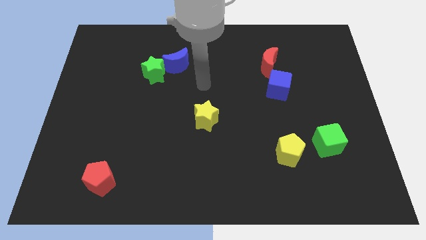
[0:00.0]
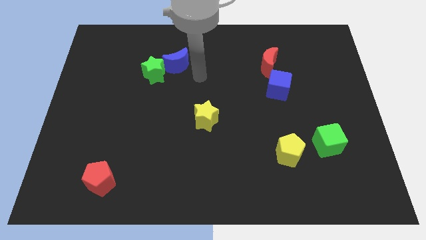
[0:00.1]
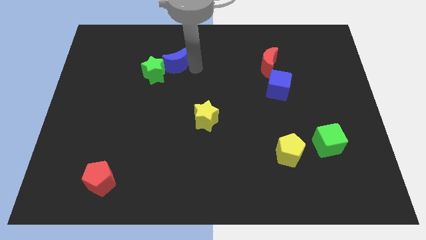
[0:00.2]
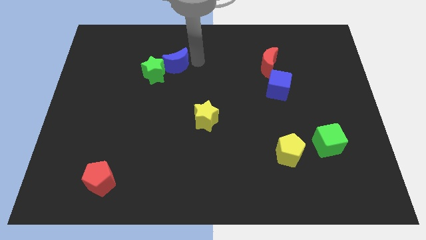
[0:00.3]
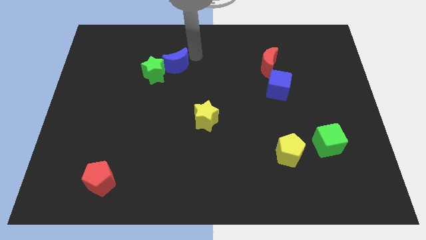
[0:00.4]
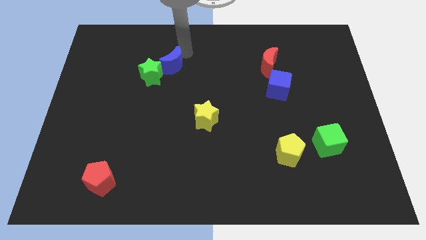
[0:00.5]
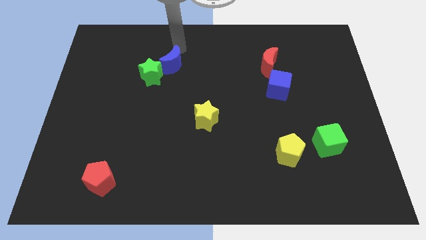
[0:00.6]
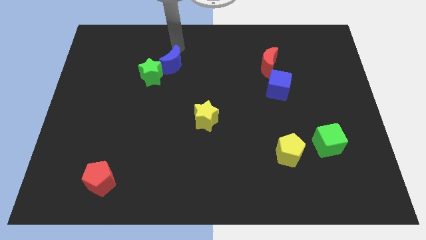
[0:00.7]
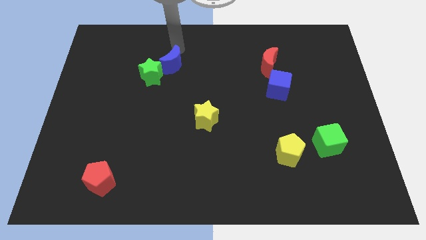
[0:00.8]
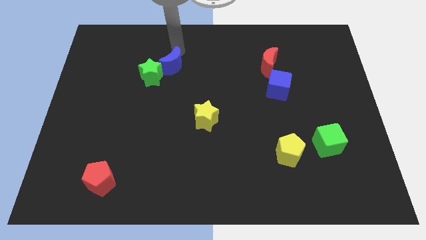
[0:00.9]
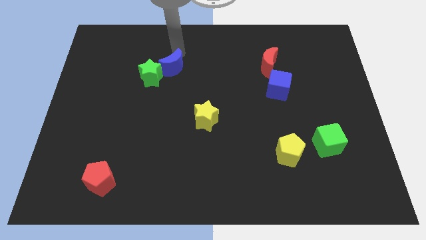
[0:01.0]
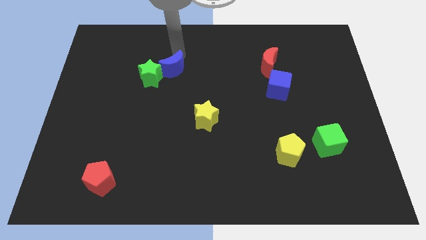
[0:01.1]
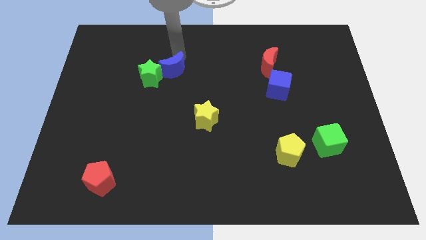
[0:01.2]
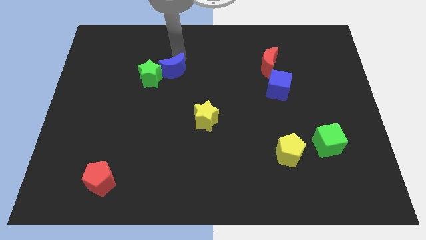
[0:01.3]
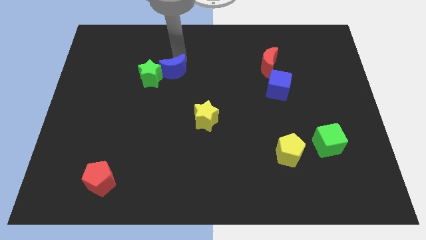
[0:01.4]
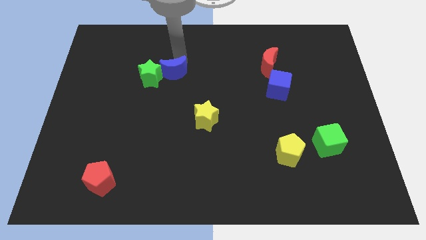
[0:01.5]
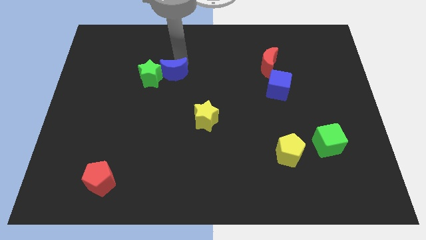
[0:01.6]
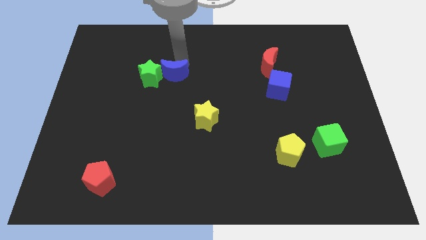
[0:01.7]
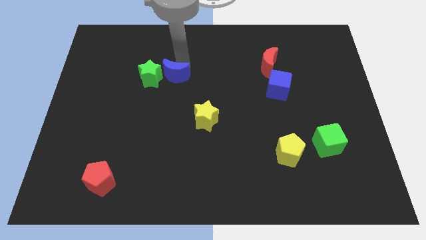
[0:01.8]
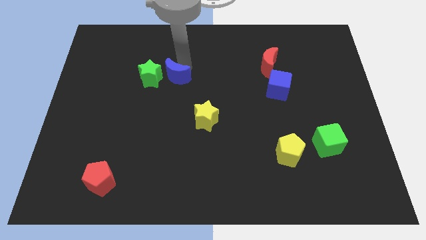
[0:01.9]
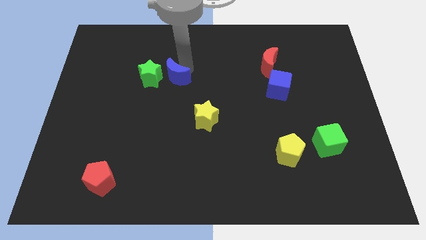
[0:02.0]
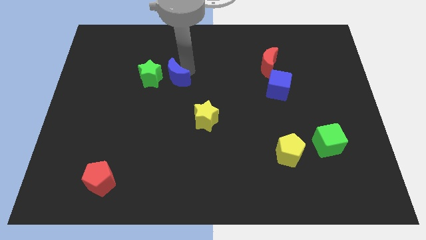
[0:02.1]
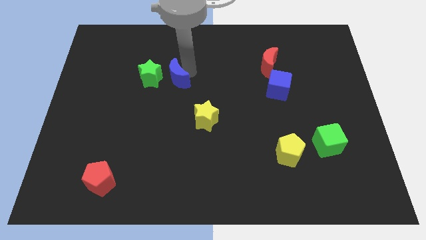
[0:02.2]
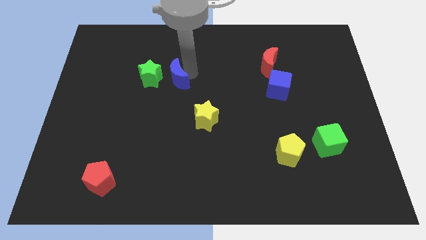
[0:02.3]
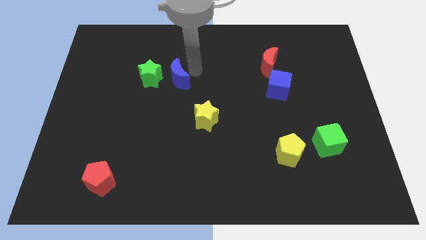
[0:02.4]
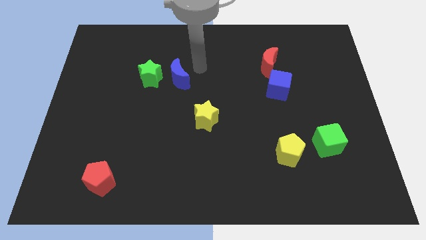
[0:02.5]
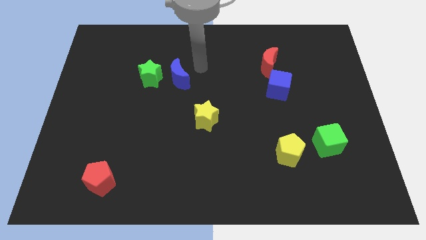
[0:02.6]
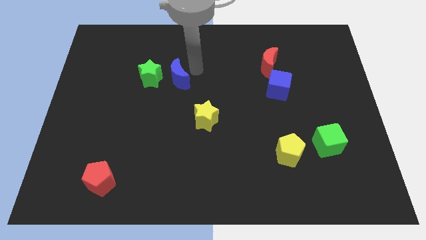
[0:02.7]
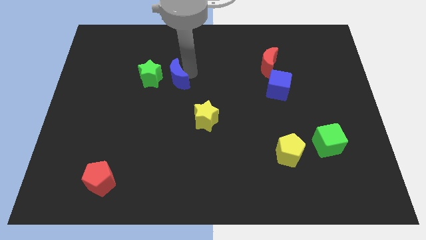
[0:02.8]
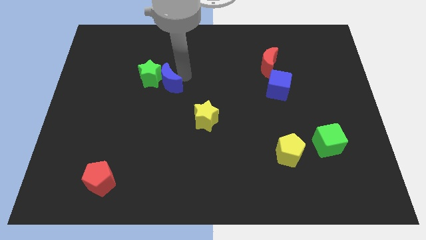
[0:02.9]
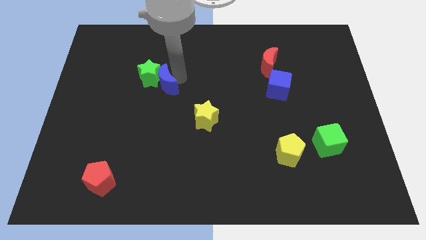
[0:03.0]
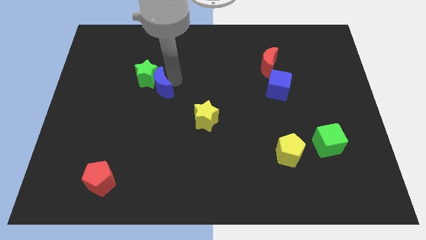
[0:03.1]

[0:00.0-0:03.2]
move the blue moon diagonally downwards and to the left slightly

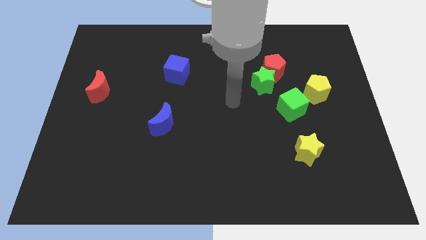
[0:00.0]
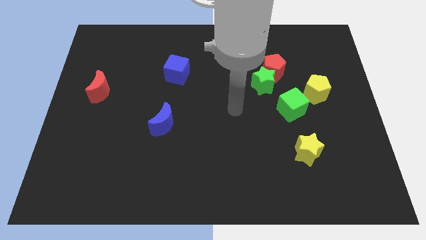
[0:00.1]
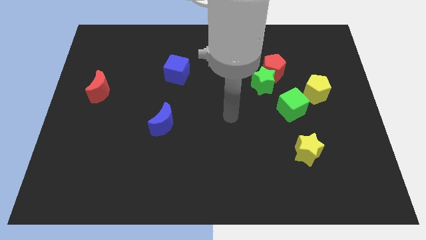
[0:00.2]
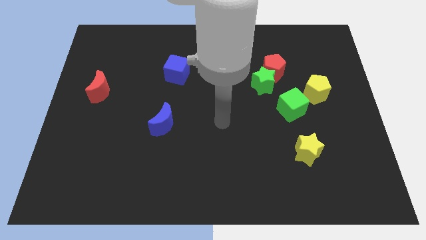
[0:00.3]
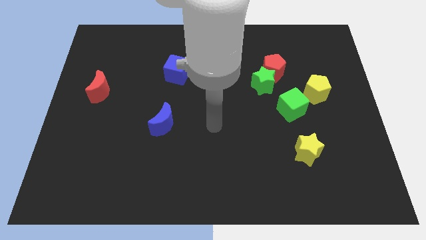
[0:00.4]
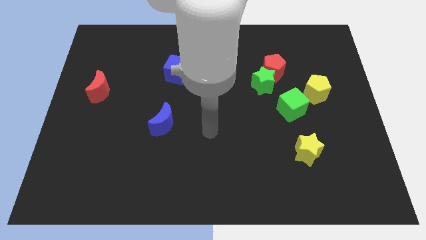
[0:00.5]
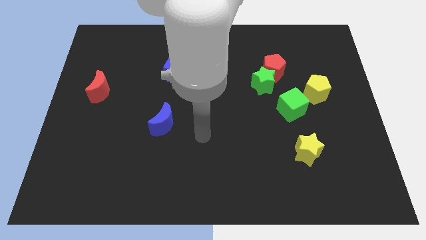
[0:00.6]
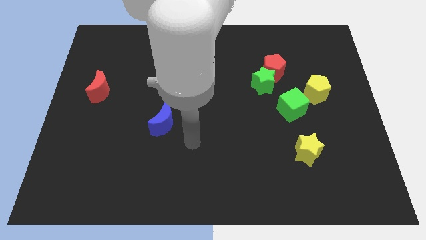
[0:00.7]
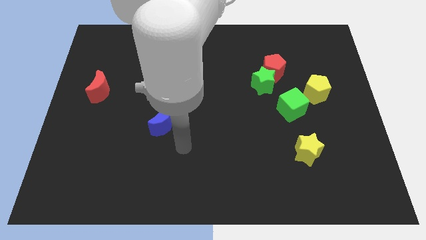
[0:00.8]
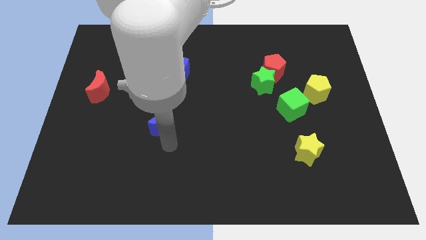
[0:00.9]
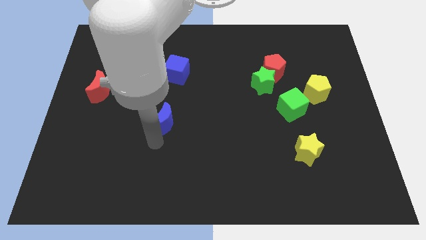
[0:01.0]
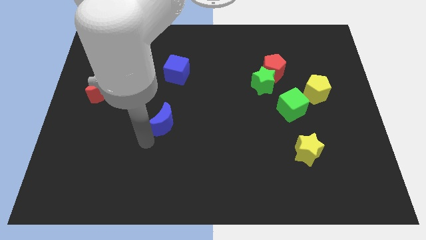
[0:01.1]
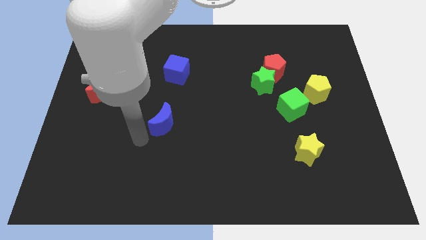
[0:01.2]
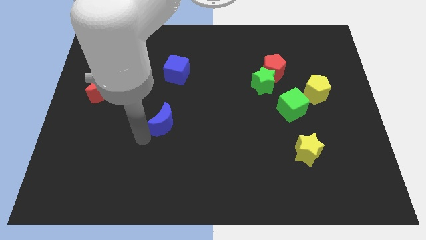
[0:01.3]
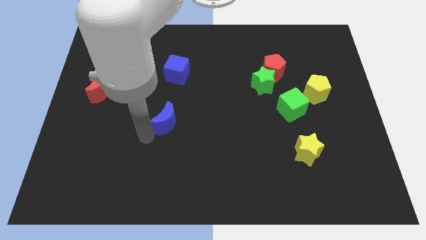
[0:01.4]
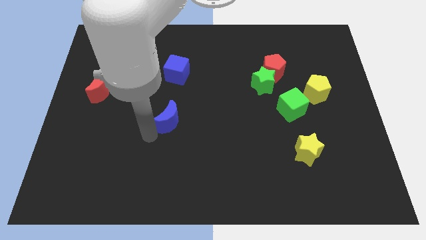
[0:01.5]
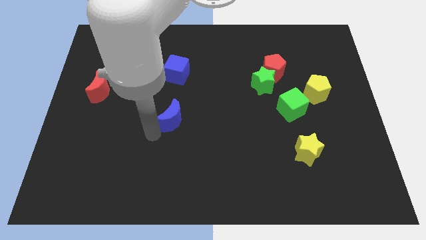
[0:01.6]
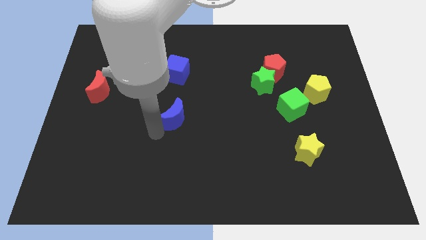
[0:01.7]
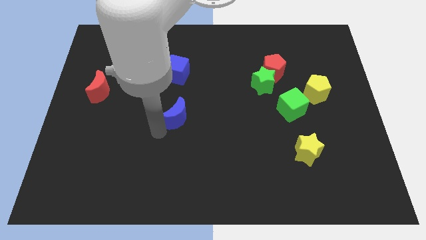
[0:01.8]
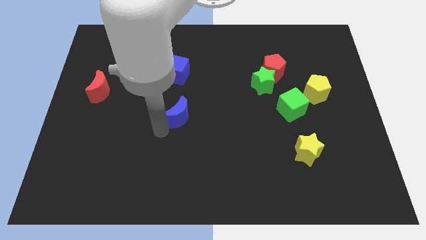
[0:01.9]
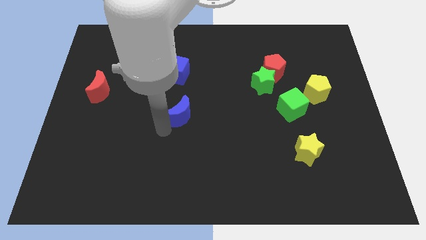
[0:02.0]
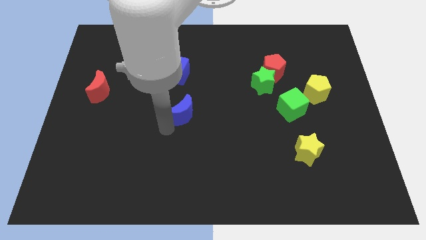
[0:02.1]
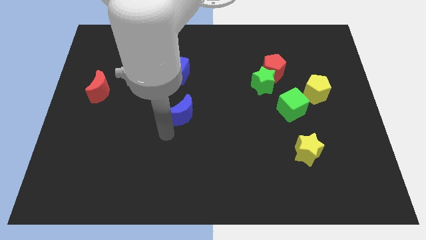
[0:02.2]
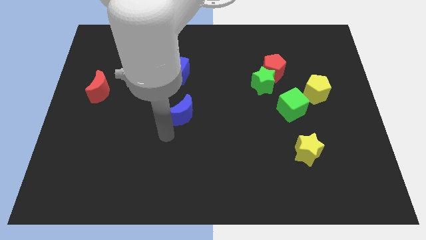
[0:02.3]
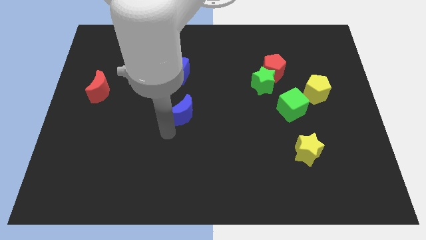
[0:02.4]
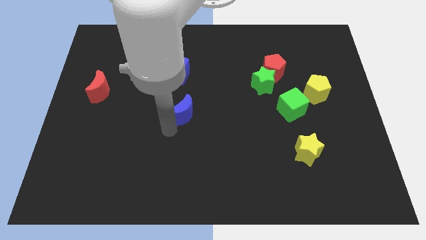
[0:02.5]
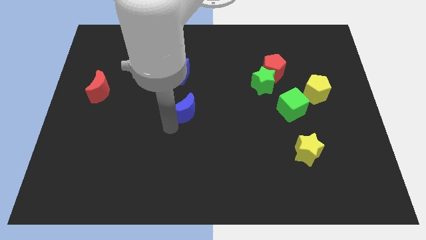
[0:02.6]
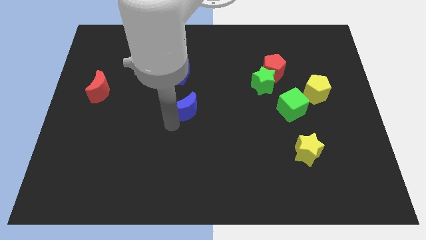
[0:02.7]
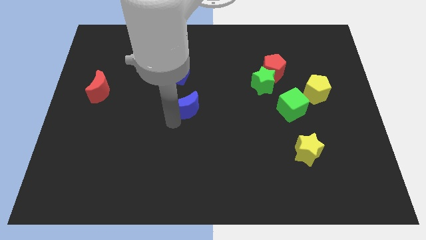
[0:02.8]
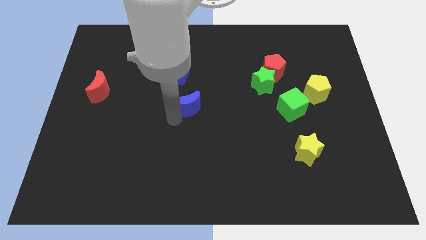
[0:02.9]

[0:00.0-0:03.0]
slide the blue moon slightly diagonally upwards and right

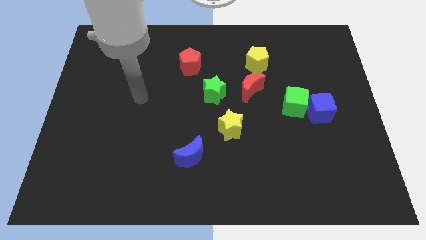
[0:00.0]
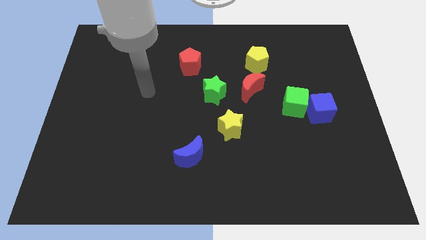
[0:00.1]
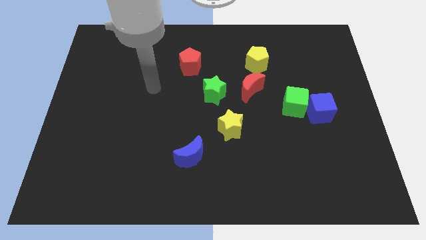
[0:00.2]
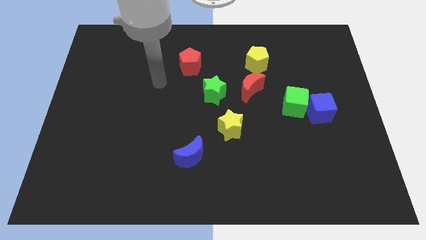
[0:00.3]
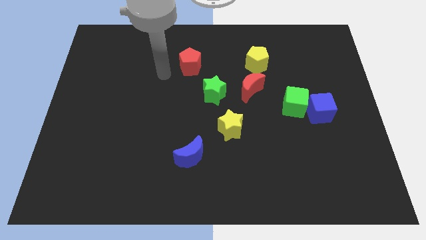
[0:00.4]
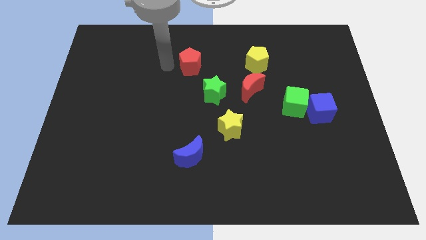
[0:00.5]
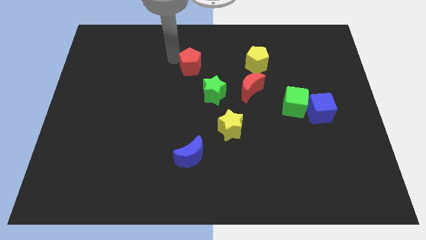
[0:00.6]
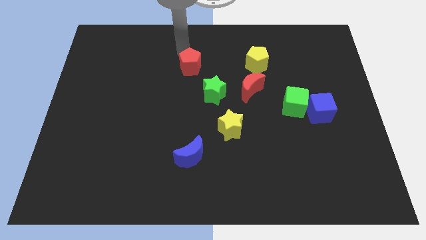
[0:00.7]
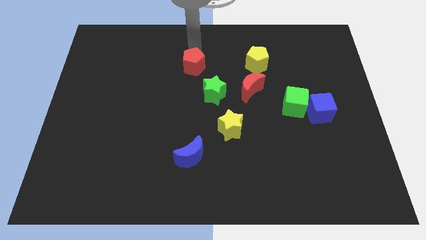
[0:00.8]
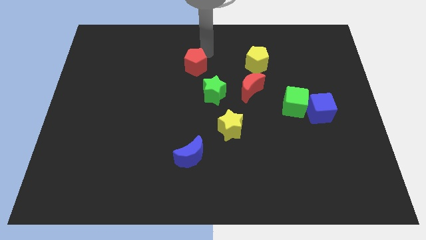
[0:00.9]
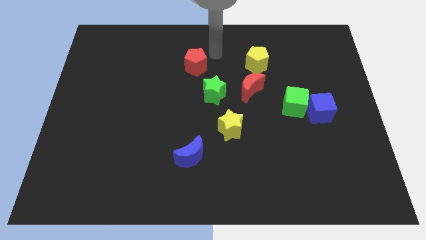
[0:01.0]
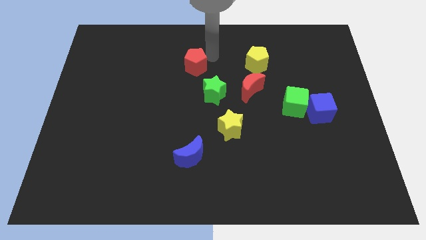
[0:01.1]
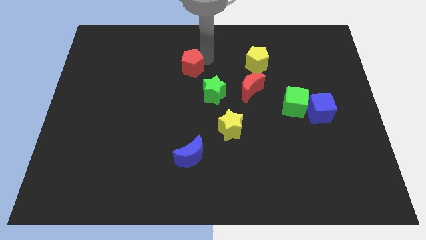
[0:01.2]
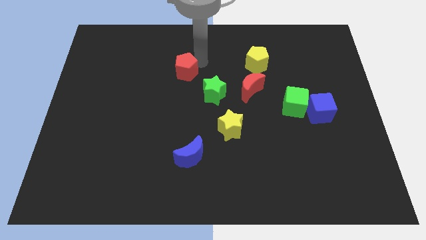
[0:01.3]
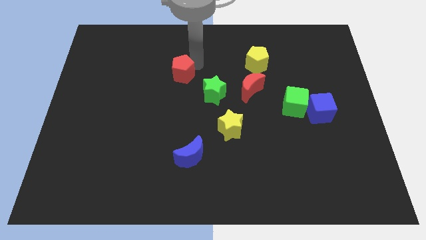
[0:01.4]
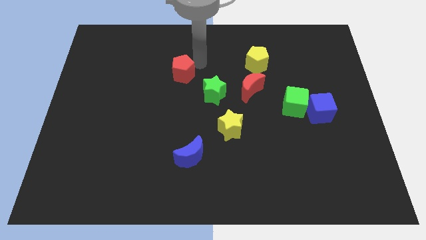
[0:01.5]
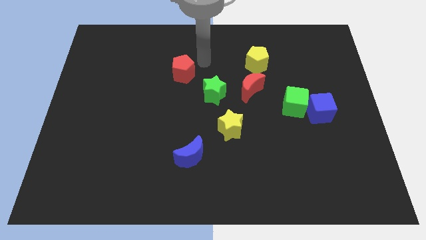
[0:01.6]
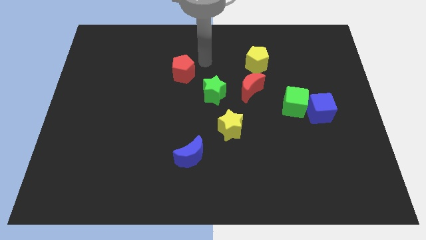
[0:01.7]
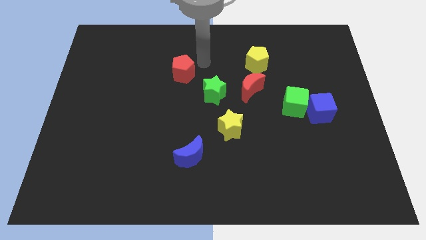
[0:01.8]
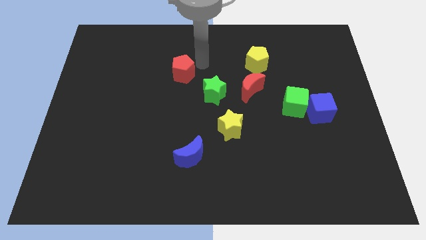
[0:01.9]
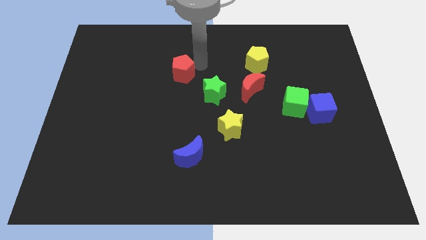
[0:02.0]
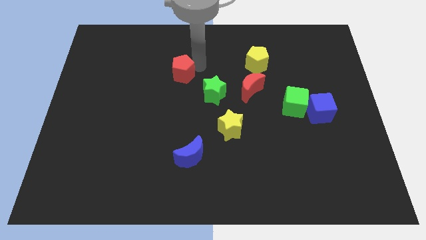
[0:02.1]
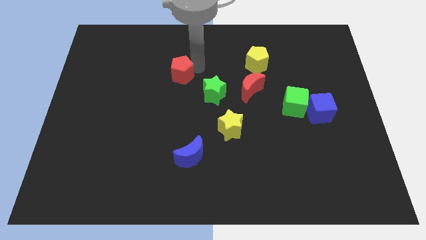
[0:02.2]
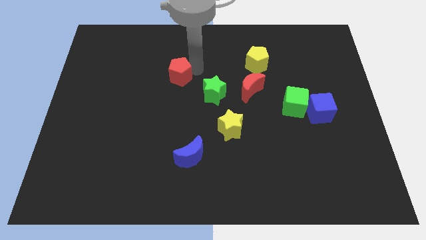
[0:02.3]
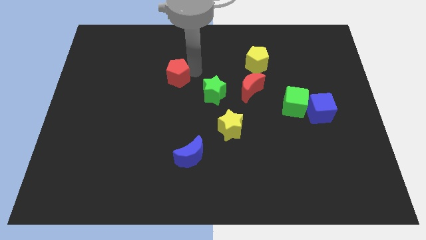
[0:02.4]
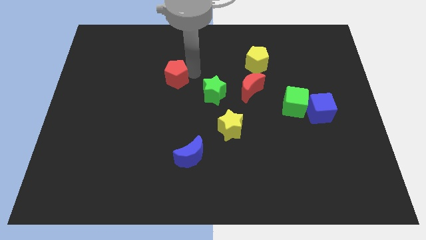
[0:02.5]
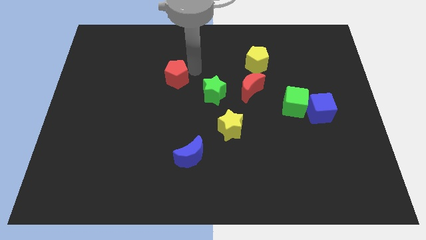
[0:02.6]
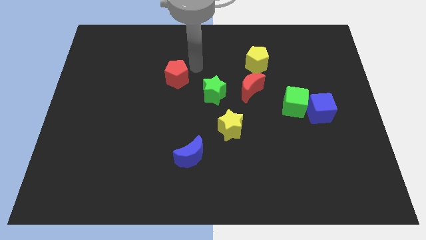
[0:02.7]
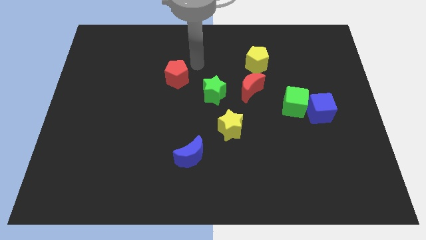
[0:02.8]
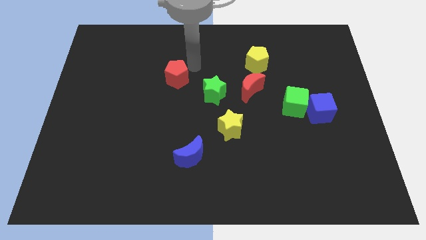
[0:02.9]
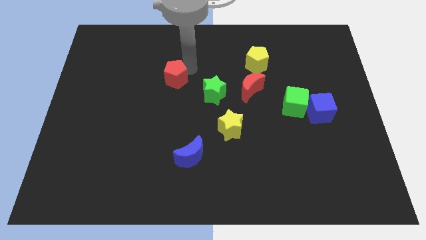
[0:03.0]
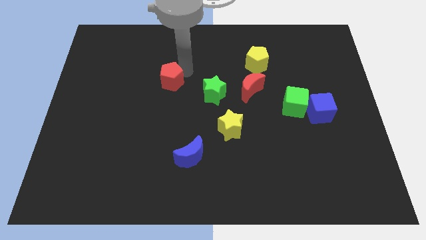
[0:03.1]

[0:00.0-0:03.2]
slightly slide the red pentagon down and left diagonally
